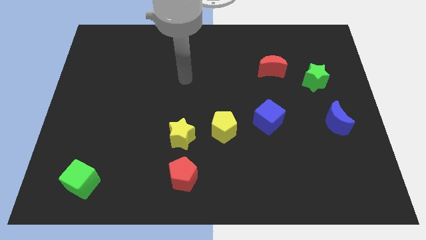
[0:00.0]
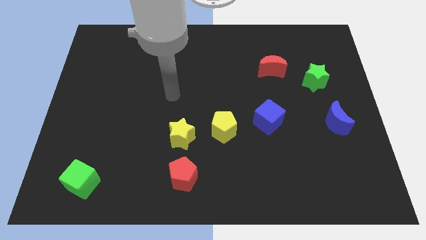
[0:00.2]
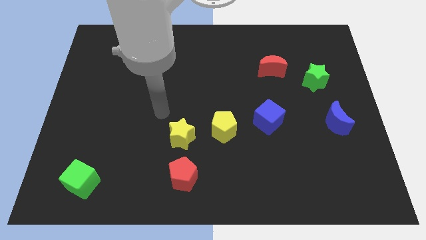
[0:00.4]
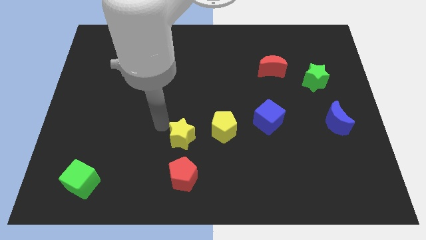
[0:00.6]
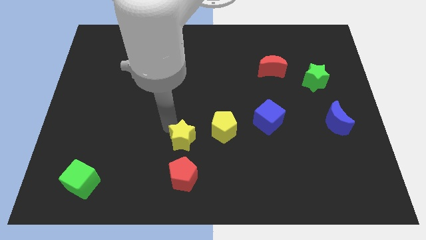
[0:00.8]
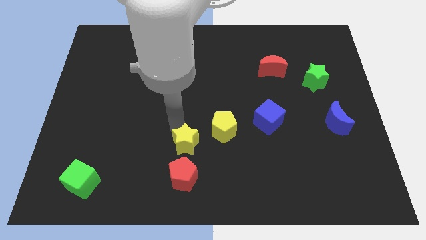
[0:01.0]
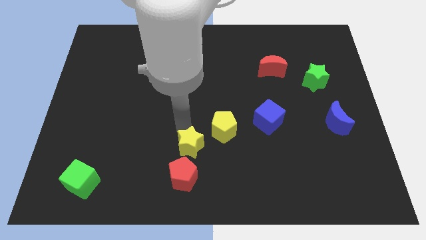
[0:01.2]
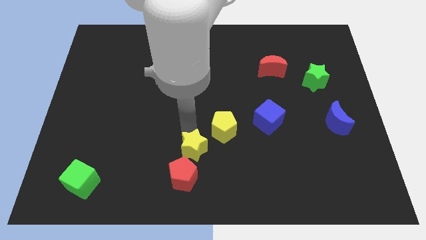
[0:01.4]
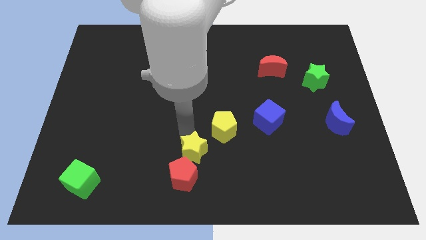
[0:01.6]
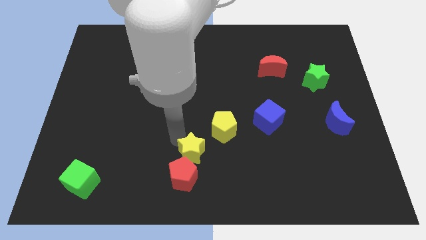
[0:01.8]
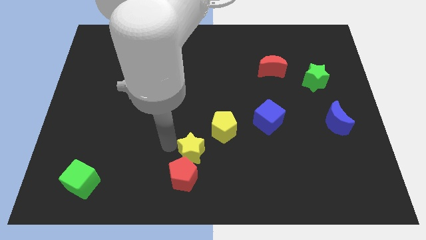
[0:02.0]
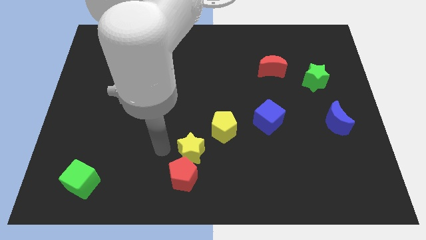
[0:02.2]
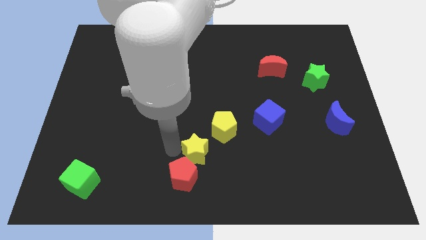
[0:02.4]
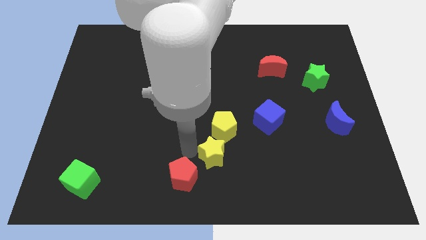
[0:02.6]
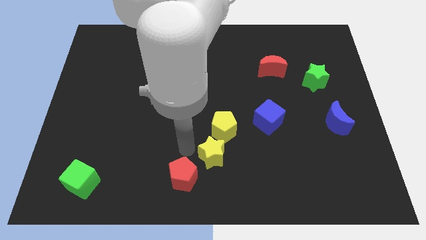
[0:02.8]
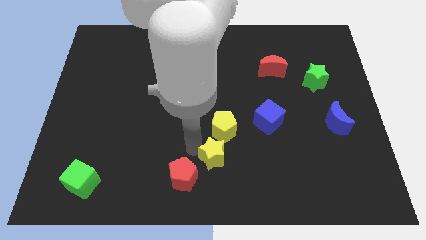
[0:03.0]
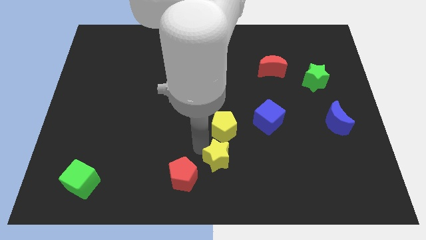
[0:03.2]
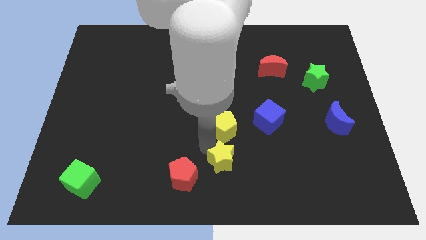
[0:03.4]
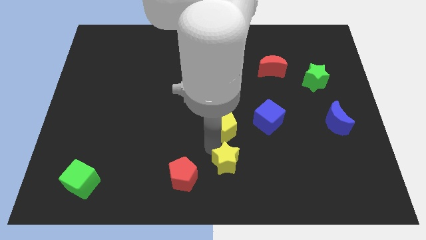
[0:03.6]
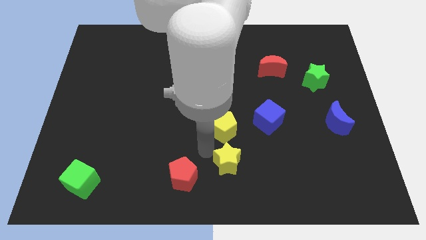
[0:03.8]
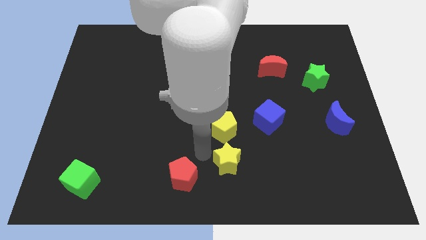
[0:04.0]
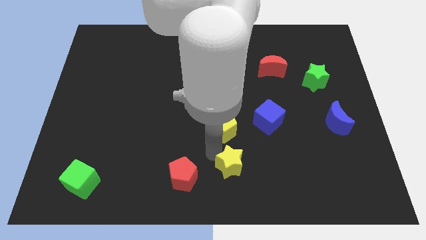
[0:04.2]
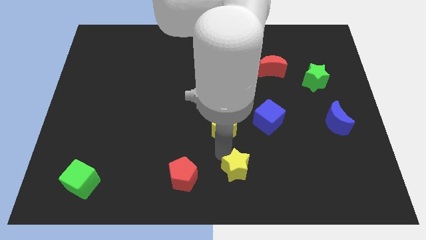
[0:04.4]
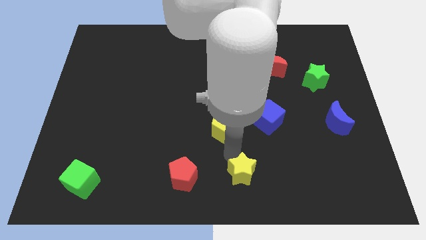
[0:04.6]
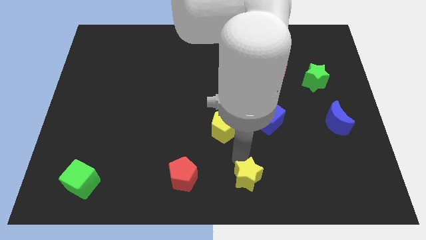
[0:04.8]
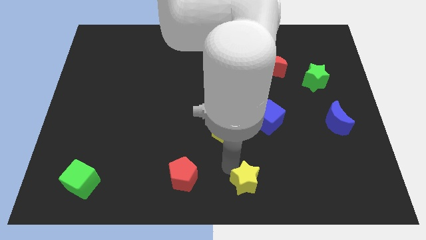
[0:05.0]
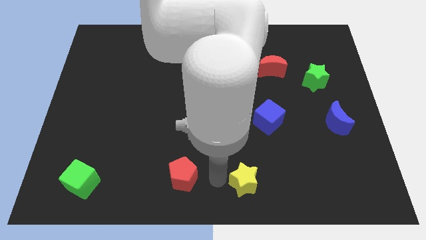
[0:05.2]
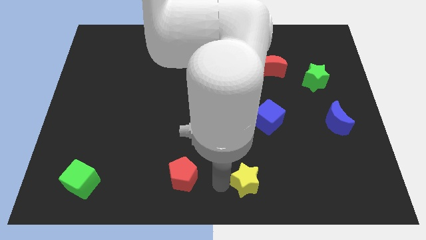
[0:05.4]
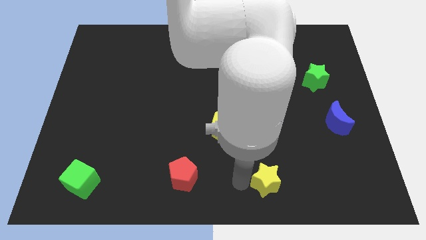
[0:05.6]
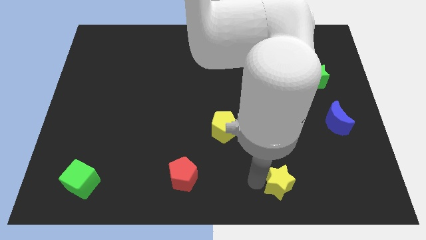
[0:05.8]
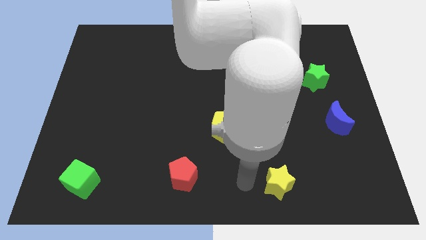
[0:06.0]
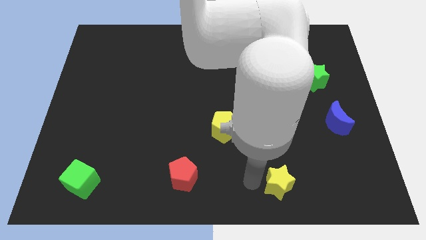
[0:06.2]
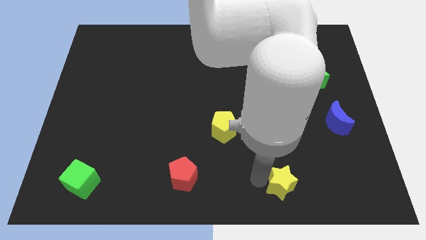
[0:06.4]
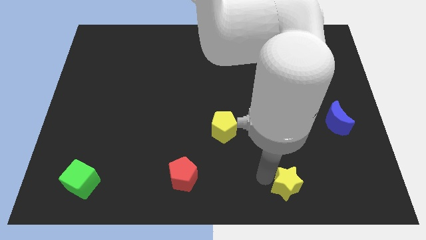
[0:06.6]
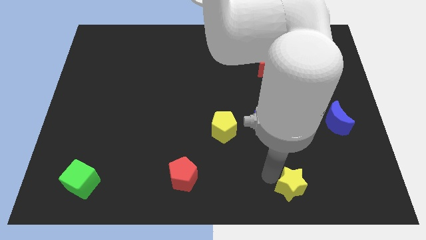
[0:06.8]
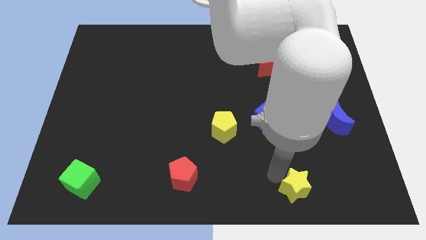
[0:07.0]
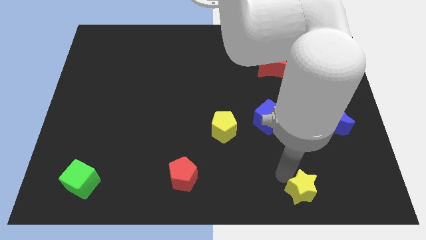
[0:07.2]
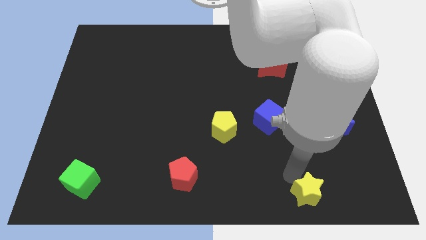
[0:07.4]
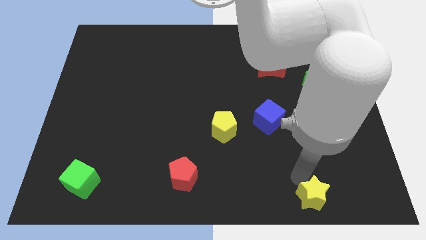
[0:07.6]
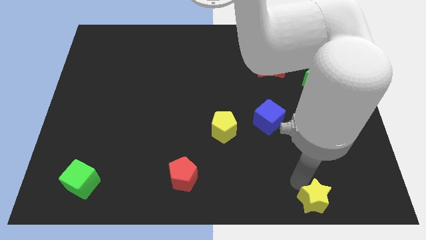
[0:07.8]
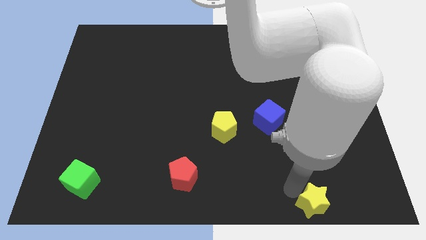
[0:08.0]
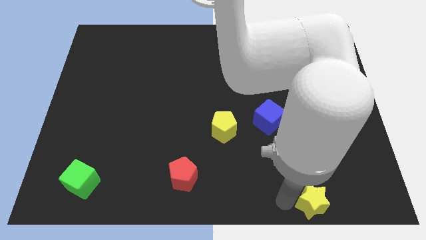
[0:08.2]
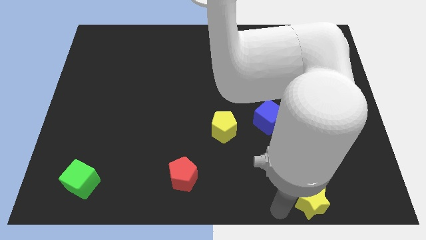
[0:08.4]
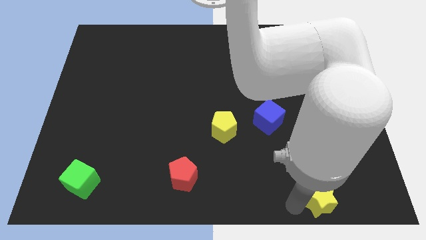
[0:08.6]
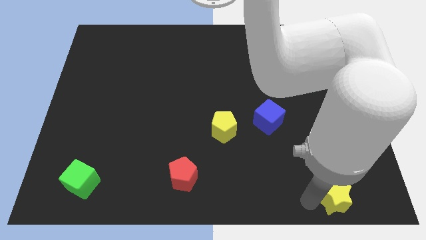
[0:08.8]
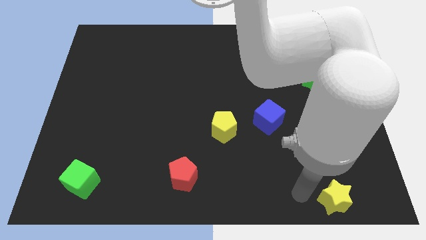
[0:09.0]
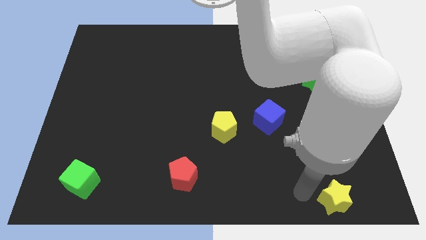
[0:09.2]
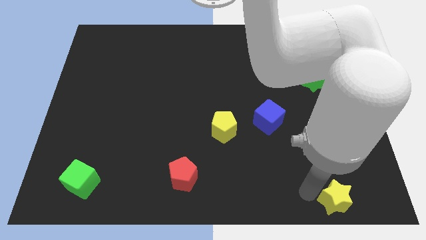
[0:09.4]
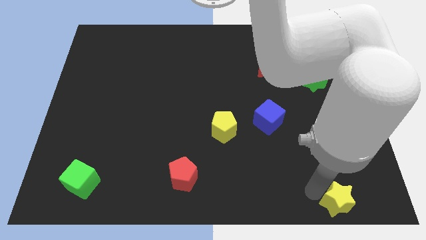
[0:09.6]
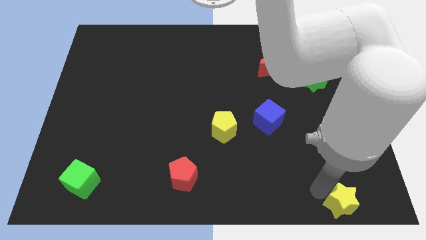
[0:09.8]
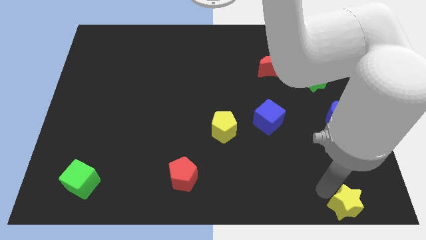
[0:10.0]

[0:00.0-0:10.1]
slide the yellow star to the bottom right

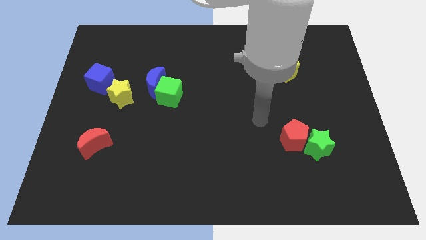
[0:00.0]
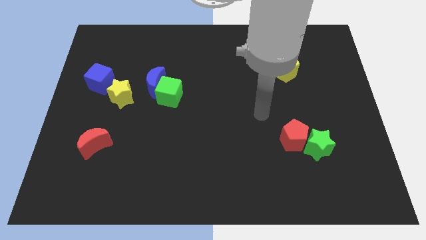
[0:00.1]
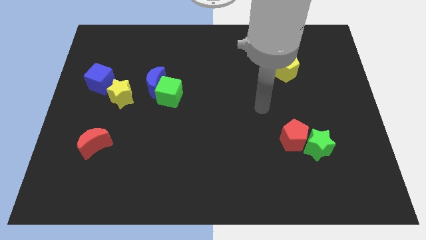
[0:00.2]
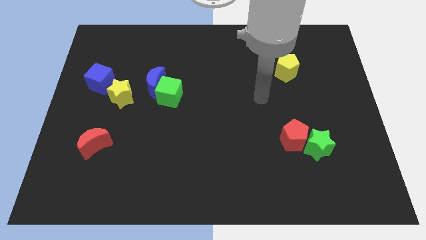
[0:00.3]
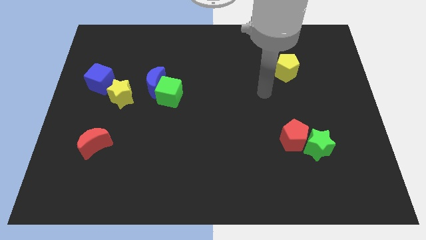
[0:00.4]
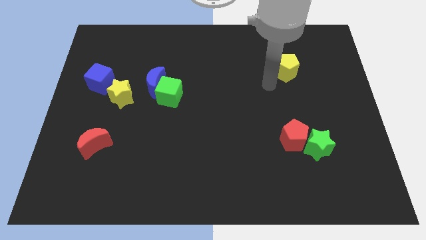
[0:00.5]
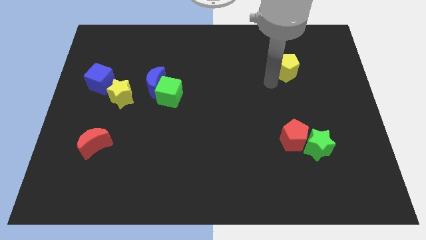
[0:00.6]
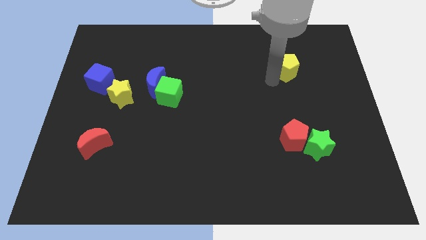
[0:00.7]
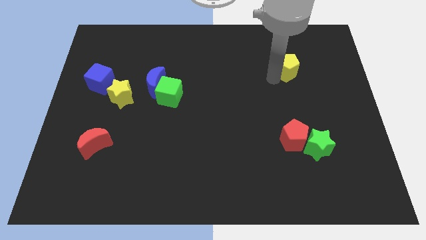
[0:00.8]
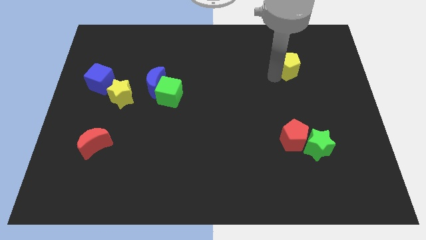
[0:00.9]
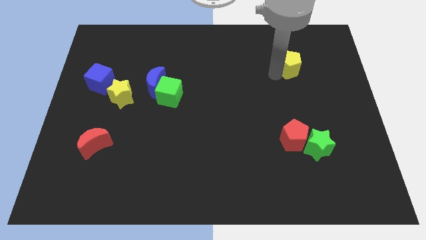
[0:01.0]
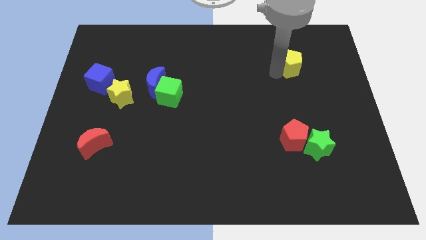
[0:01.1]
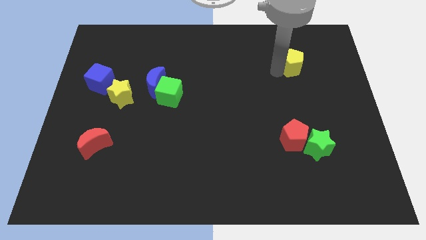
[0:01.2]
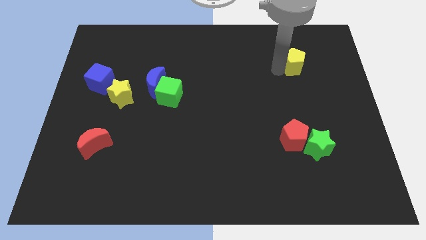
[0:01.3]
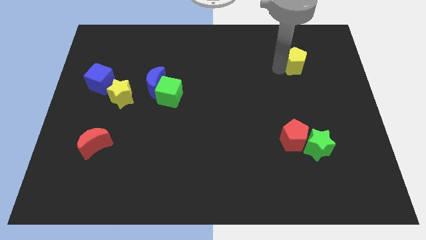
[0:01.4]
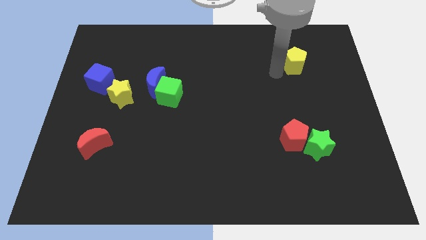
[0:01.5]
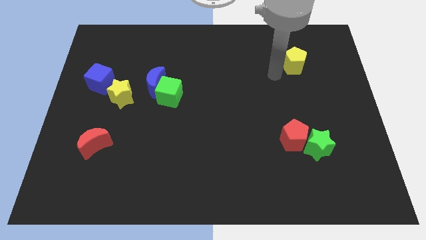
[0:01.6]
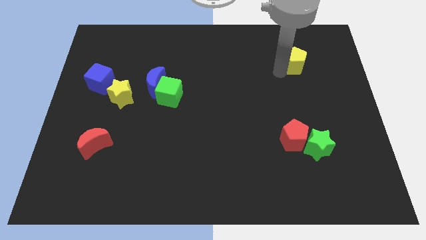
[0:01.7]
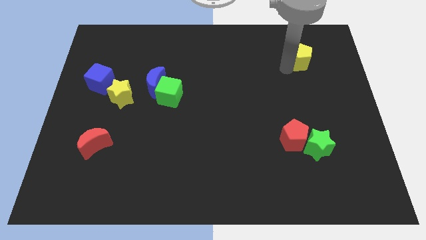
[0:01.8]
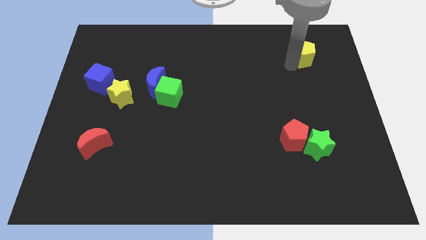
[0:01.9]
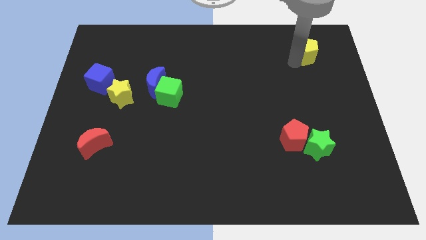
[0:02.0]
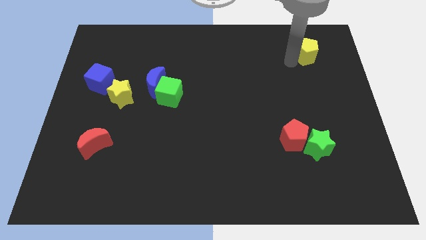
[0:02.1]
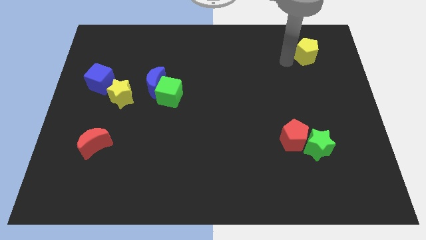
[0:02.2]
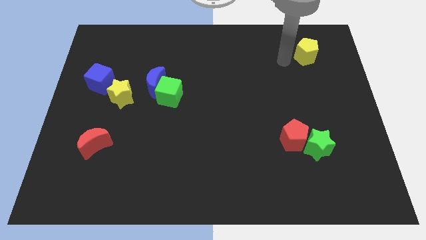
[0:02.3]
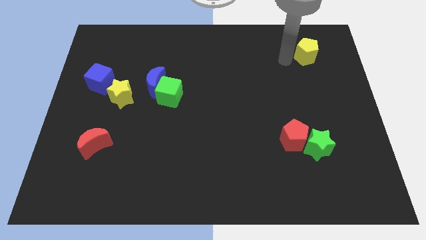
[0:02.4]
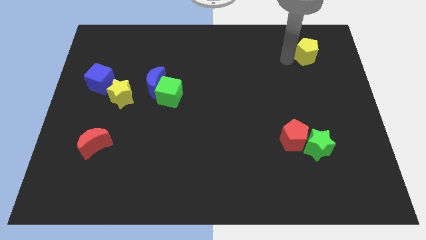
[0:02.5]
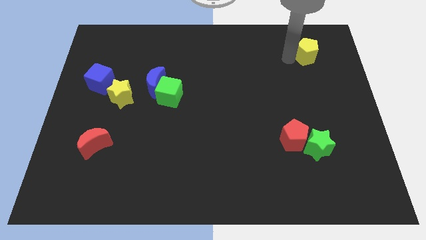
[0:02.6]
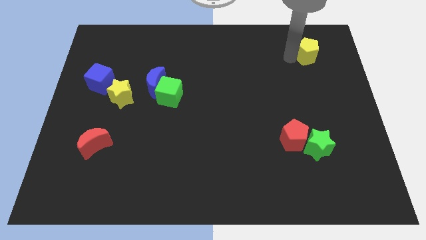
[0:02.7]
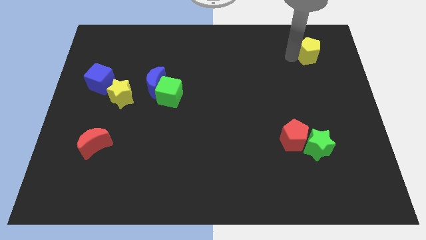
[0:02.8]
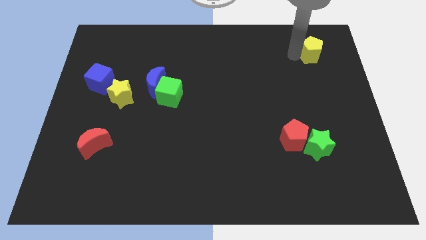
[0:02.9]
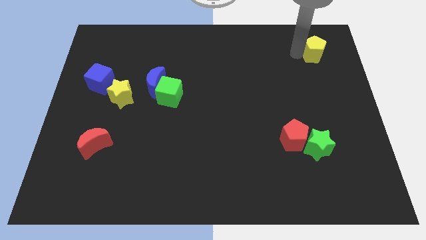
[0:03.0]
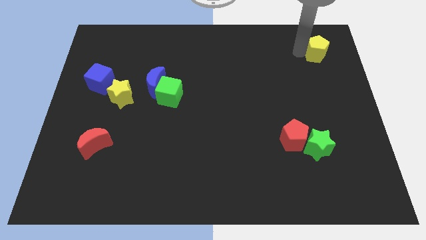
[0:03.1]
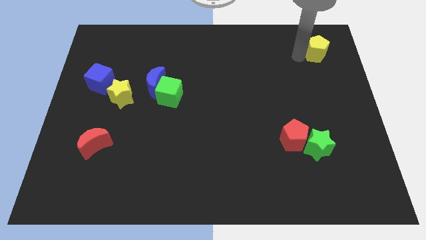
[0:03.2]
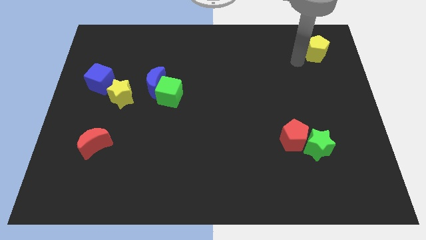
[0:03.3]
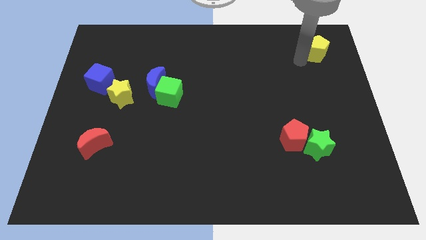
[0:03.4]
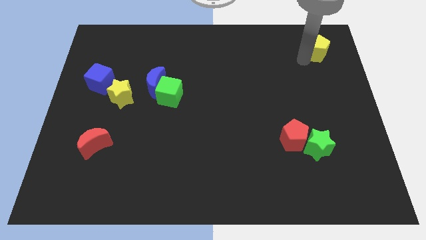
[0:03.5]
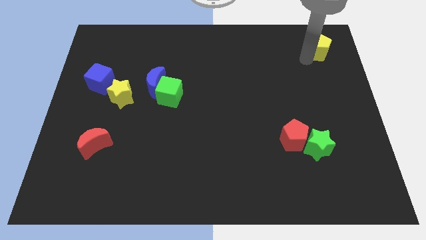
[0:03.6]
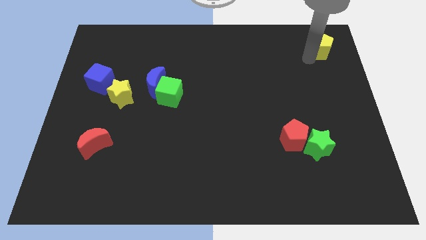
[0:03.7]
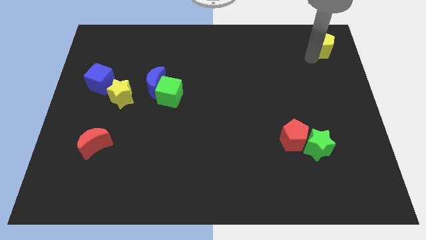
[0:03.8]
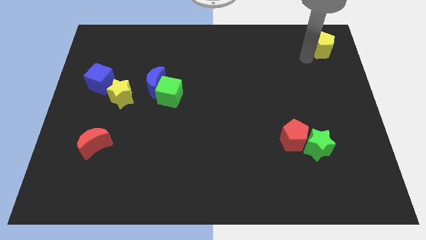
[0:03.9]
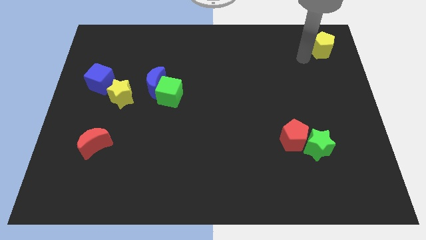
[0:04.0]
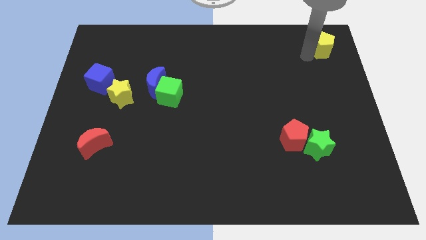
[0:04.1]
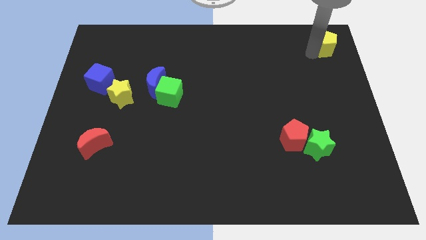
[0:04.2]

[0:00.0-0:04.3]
push the yellow pentagon to the upper right corner
